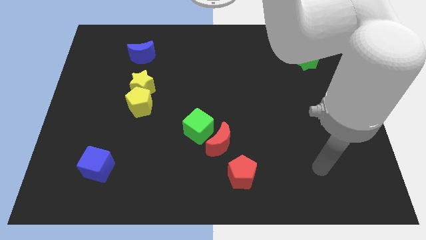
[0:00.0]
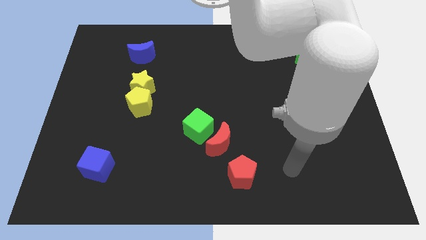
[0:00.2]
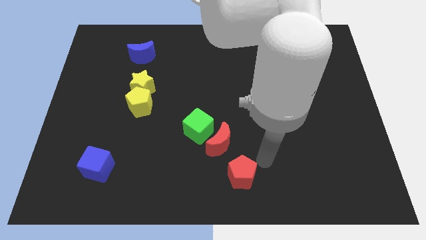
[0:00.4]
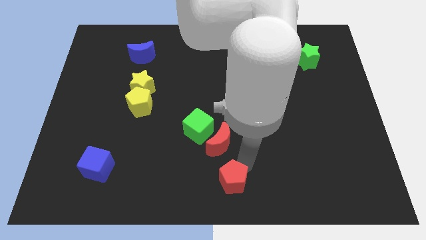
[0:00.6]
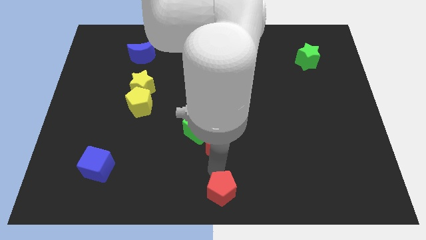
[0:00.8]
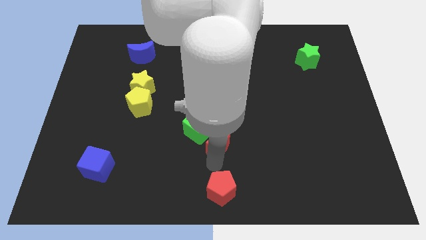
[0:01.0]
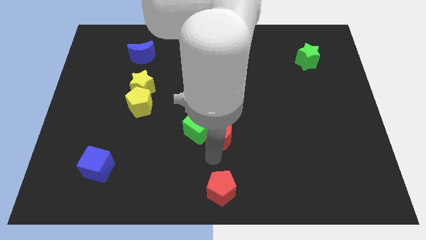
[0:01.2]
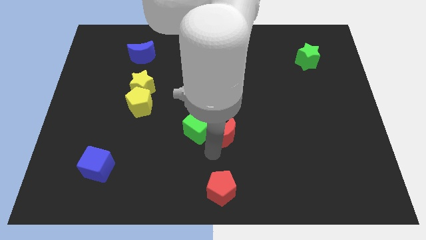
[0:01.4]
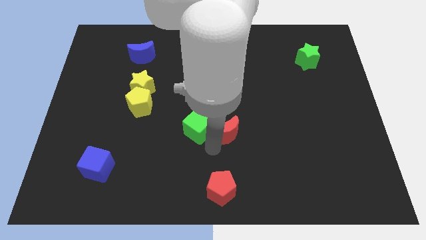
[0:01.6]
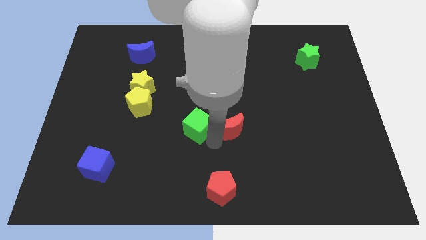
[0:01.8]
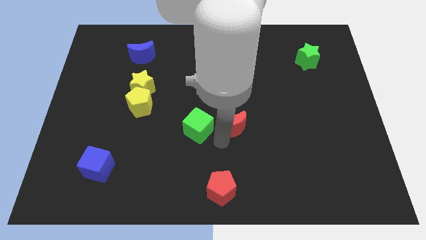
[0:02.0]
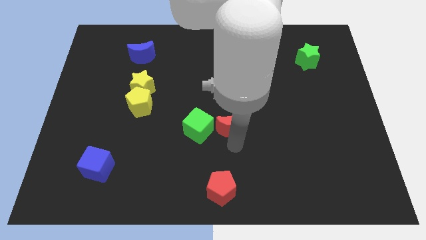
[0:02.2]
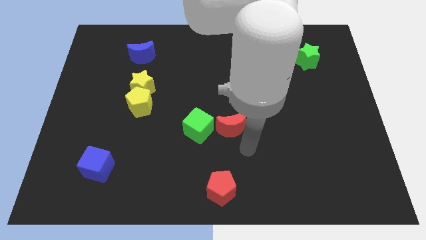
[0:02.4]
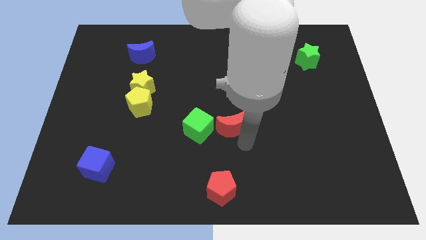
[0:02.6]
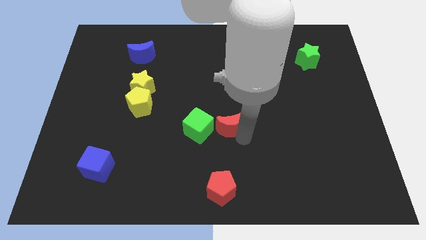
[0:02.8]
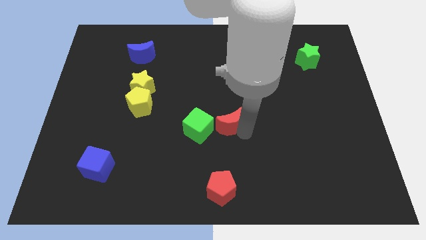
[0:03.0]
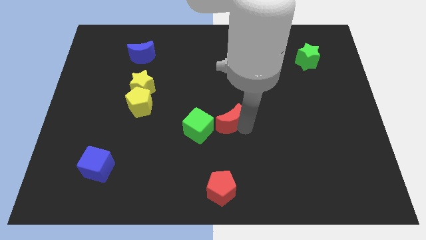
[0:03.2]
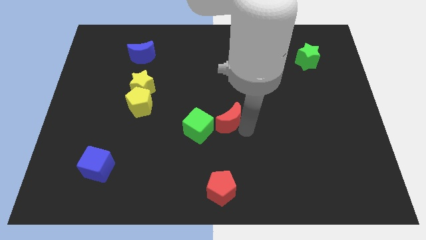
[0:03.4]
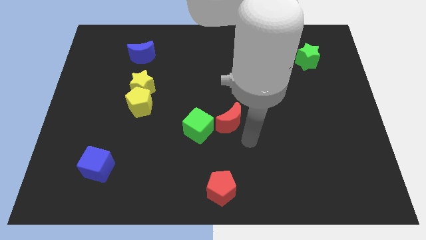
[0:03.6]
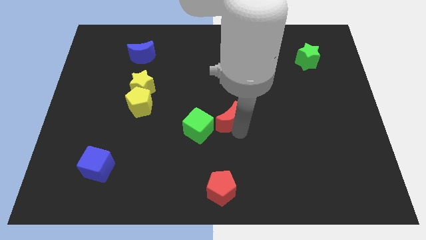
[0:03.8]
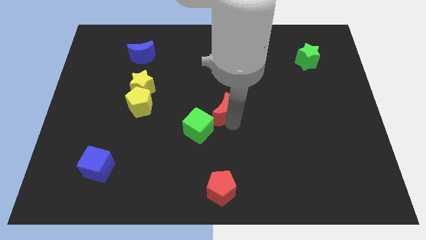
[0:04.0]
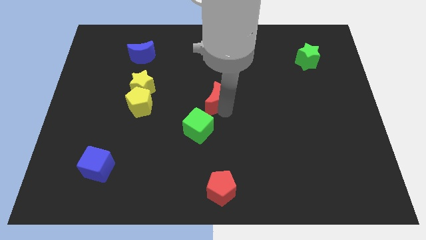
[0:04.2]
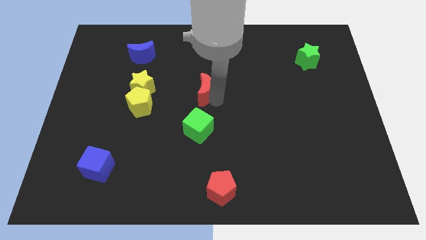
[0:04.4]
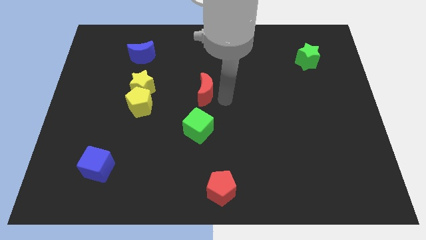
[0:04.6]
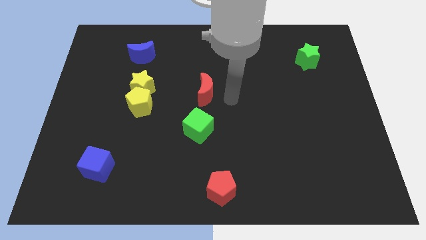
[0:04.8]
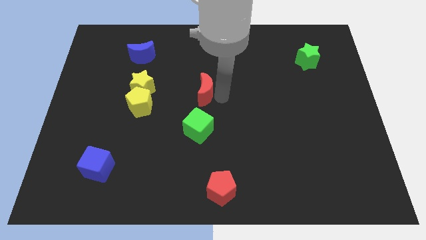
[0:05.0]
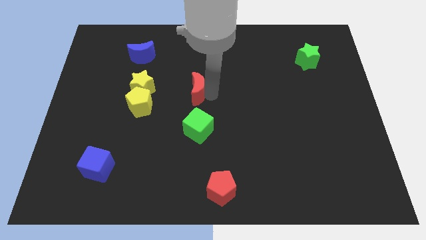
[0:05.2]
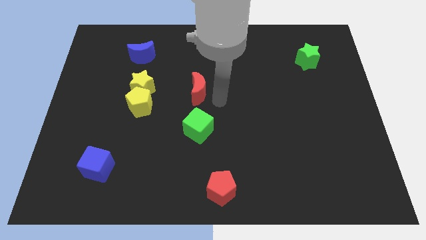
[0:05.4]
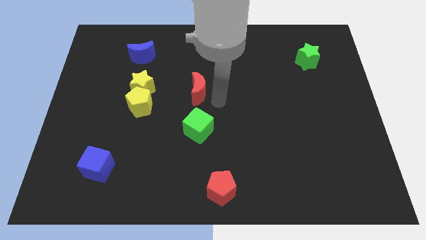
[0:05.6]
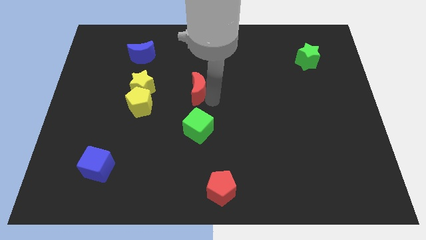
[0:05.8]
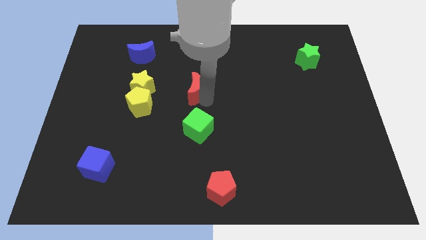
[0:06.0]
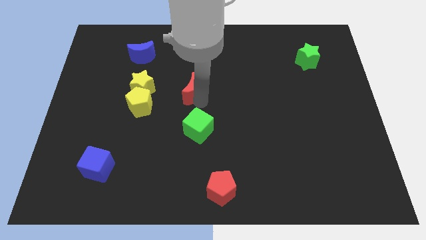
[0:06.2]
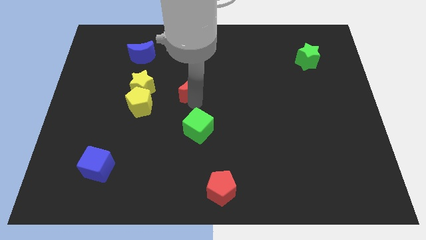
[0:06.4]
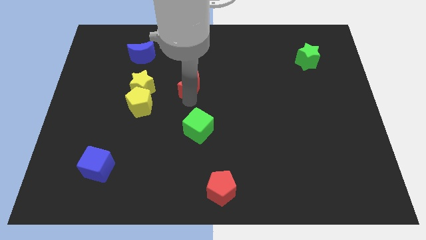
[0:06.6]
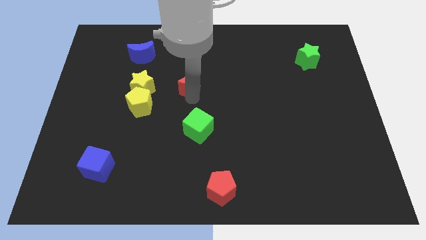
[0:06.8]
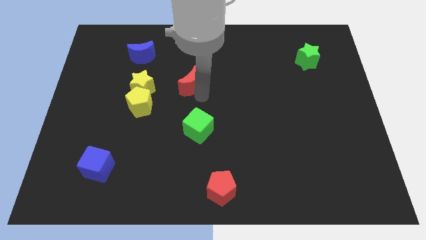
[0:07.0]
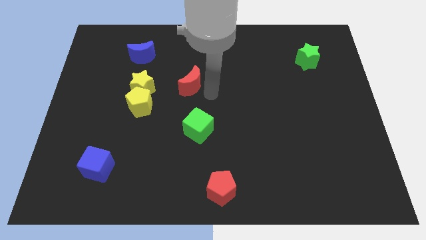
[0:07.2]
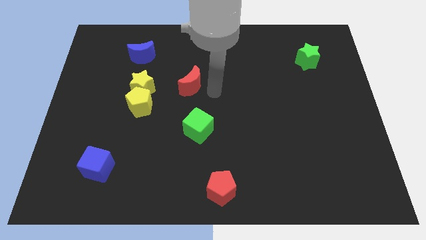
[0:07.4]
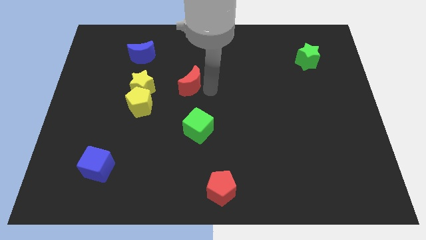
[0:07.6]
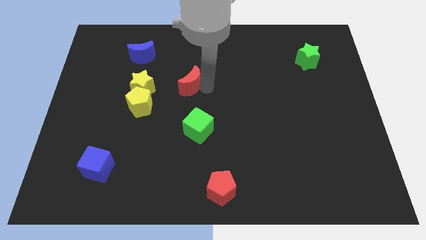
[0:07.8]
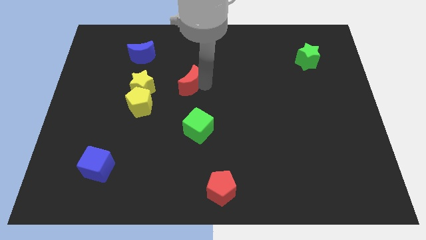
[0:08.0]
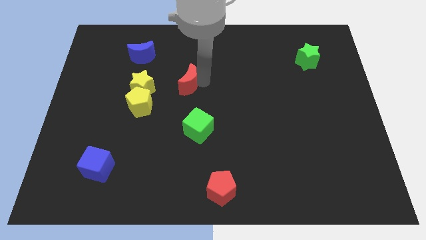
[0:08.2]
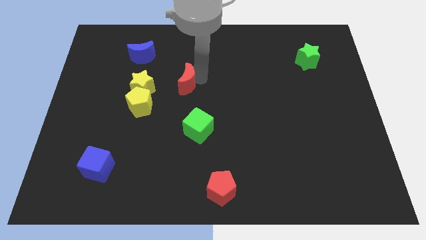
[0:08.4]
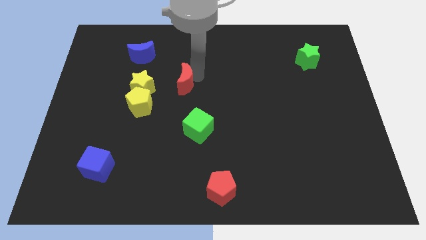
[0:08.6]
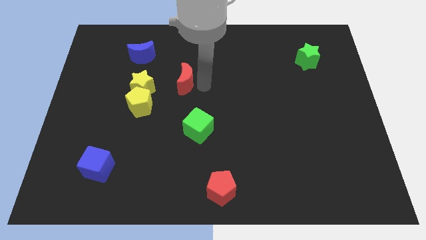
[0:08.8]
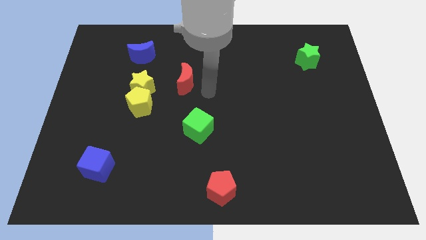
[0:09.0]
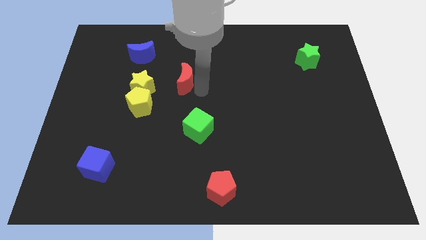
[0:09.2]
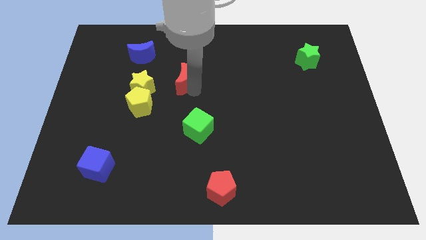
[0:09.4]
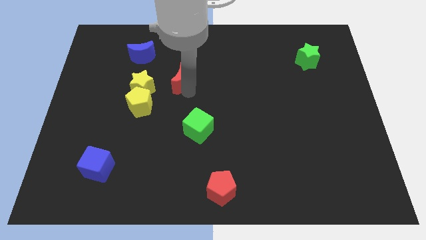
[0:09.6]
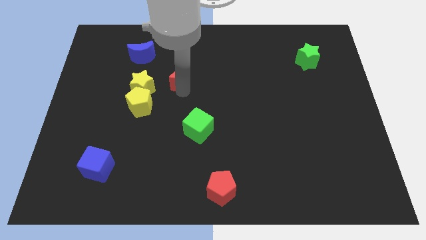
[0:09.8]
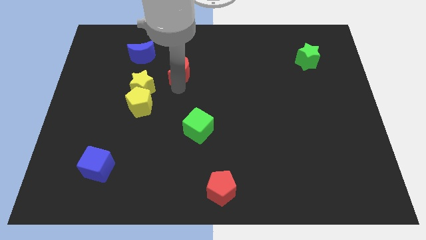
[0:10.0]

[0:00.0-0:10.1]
move the red moon to the bottom right of the blue moon

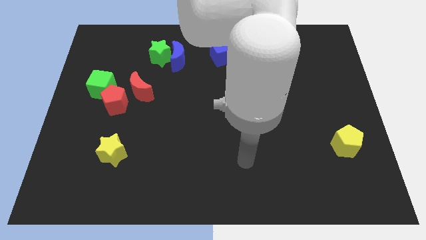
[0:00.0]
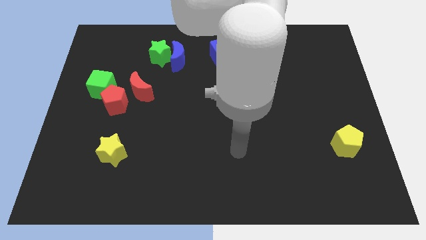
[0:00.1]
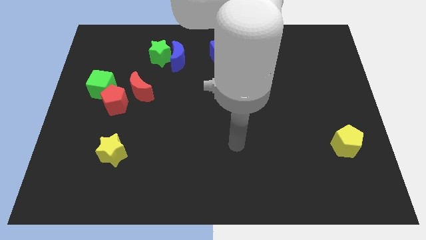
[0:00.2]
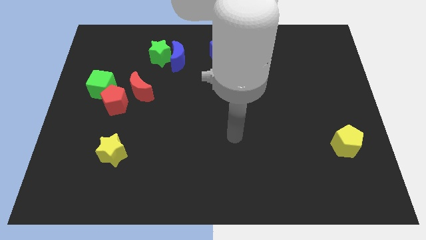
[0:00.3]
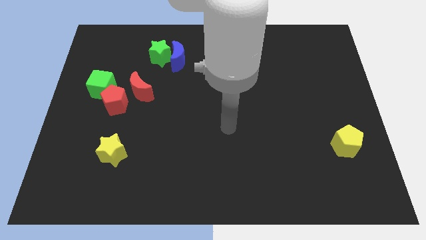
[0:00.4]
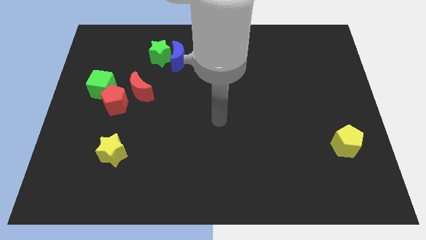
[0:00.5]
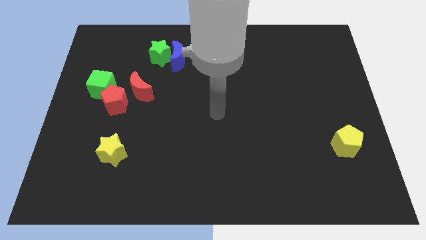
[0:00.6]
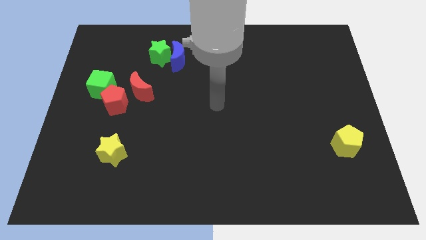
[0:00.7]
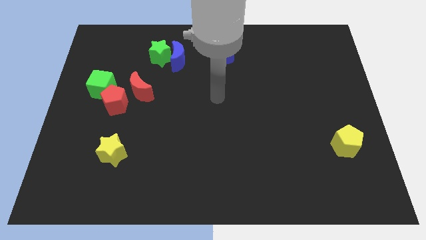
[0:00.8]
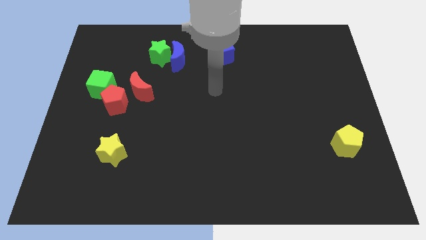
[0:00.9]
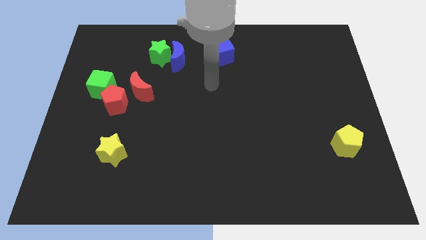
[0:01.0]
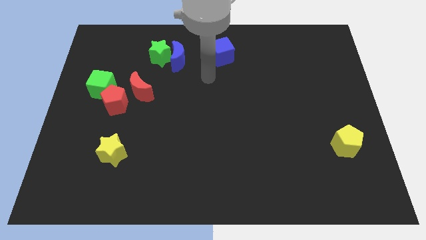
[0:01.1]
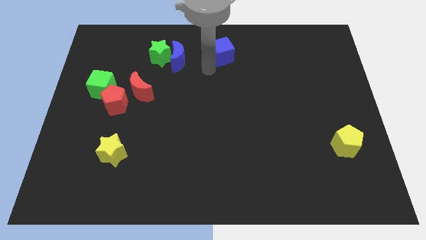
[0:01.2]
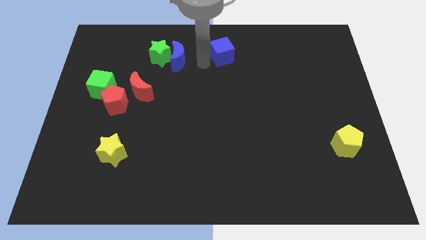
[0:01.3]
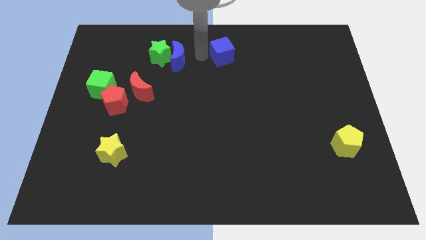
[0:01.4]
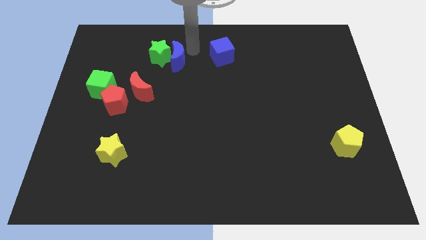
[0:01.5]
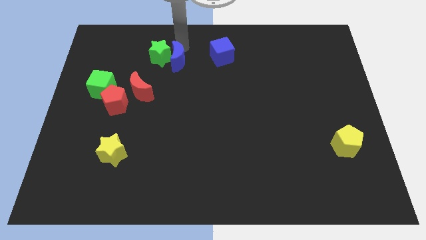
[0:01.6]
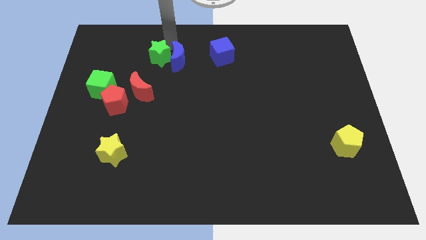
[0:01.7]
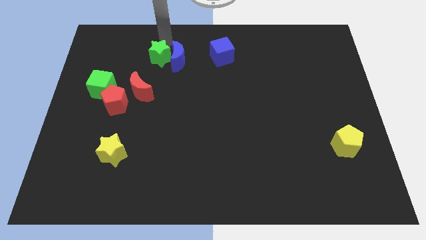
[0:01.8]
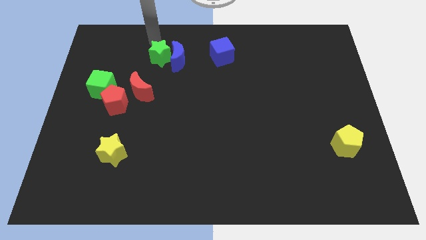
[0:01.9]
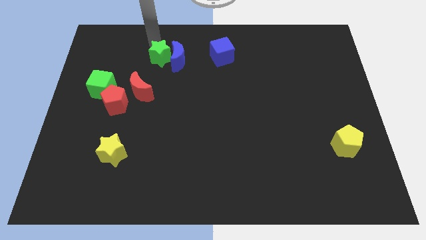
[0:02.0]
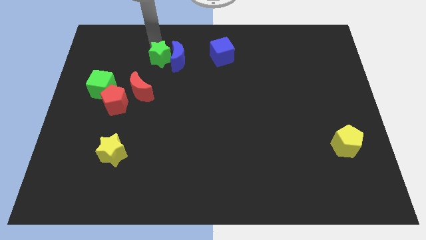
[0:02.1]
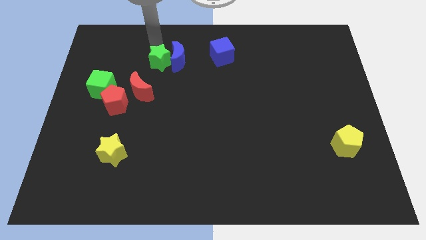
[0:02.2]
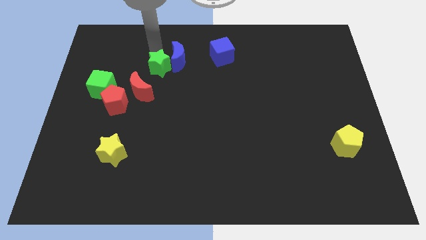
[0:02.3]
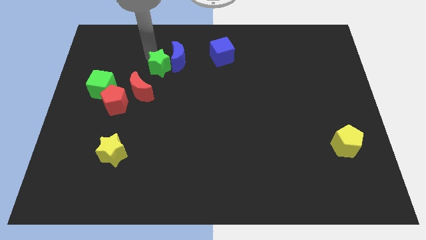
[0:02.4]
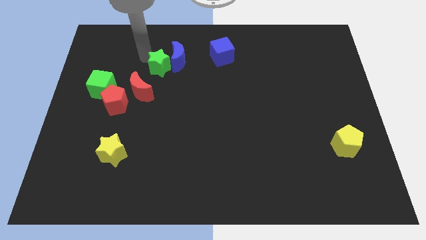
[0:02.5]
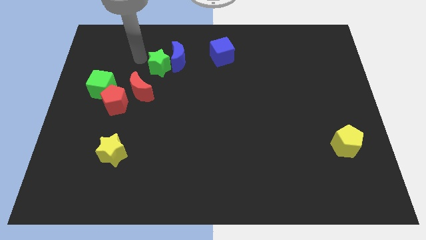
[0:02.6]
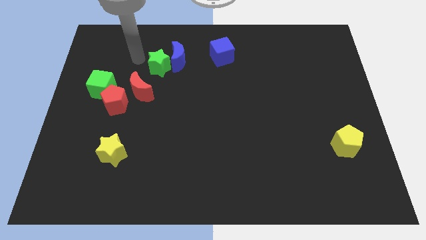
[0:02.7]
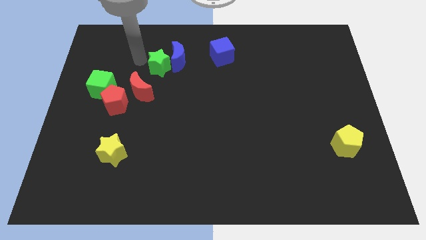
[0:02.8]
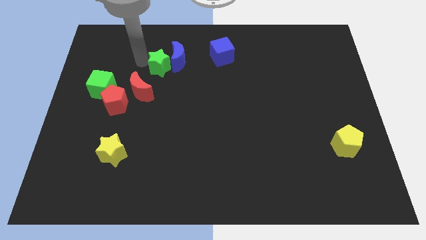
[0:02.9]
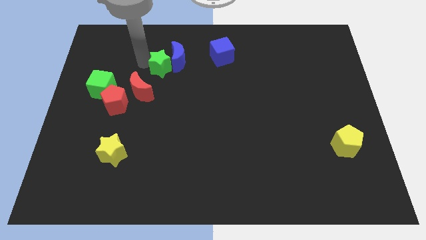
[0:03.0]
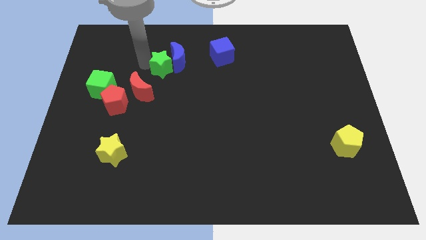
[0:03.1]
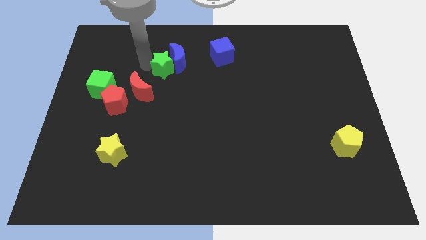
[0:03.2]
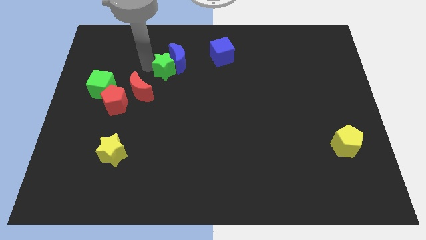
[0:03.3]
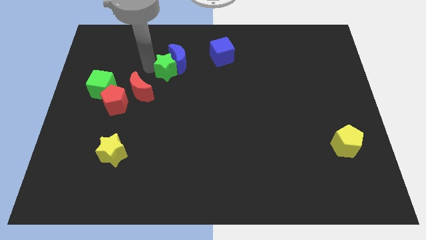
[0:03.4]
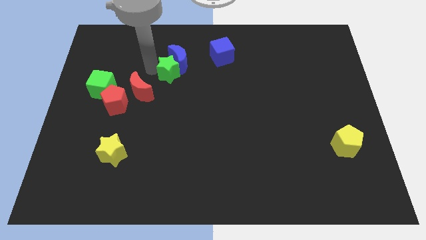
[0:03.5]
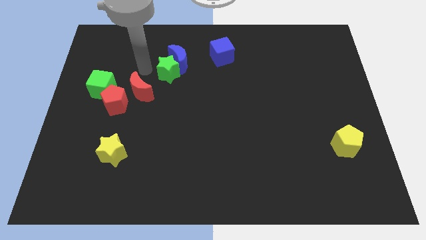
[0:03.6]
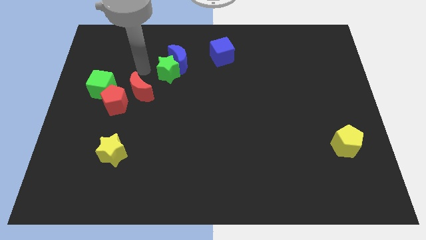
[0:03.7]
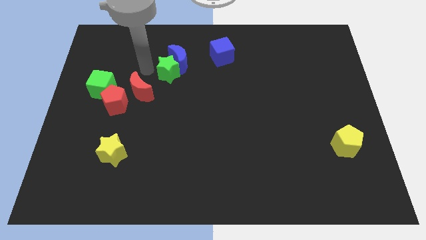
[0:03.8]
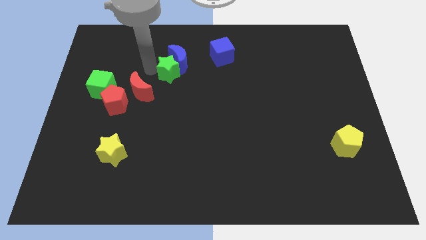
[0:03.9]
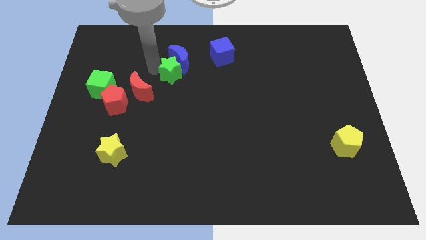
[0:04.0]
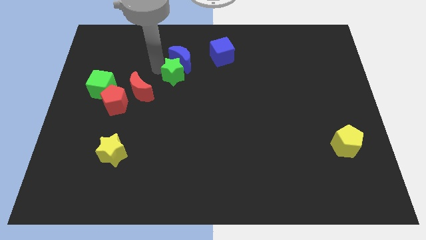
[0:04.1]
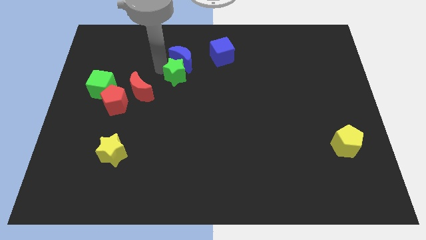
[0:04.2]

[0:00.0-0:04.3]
push the green star to the bottom right side of the blue moon
